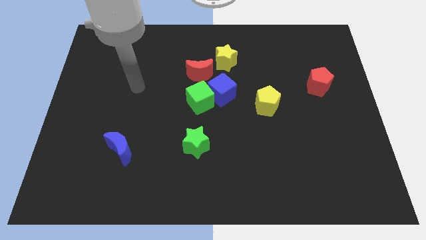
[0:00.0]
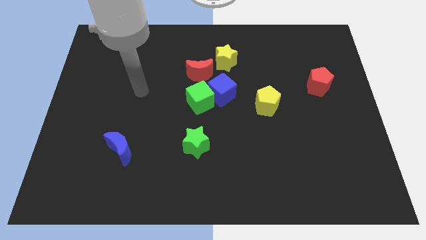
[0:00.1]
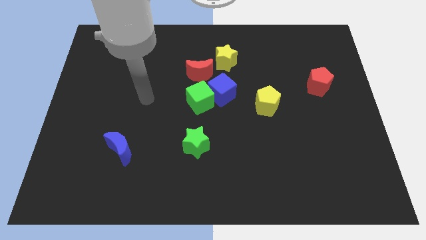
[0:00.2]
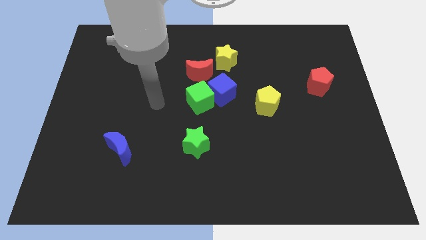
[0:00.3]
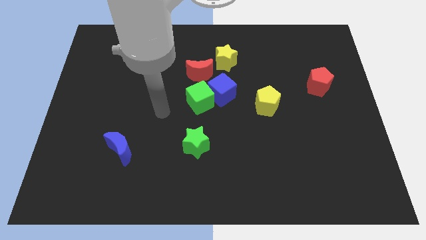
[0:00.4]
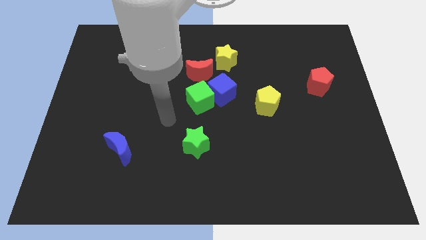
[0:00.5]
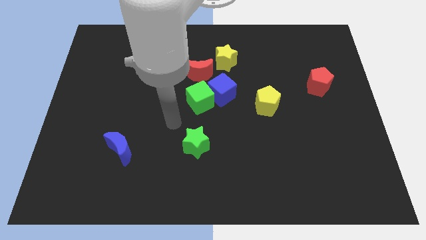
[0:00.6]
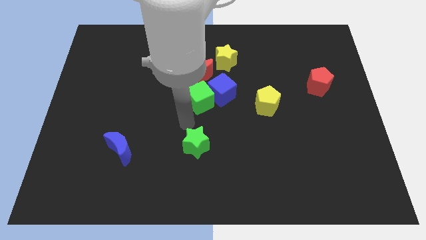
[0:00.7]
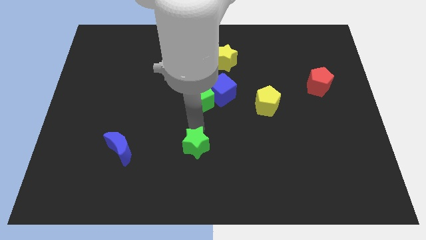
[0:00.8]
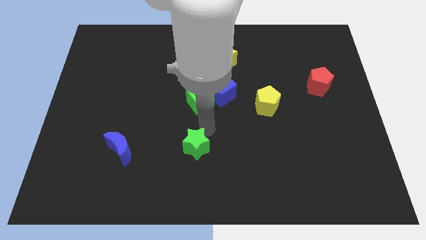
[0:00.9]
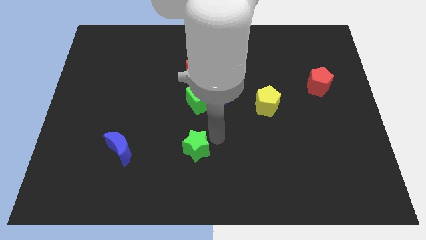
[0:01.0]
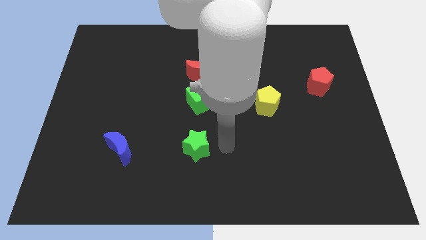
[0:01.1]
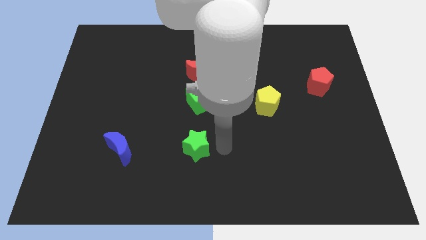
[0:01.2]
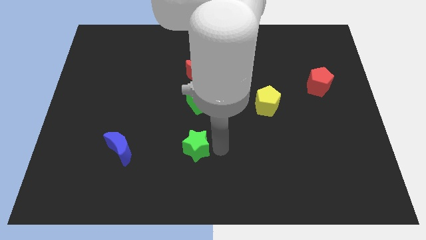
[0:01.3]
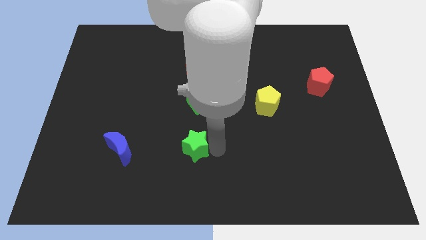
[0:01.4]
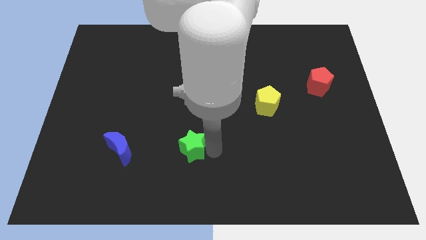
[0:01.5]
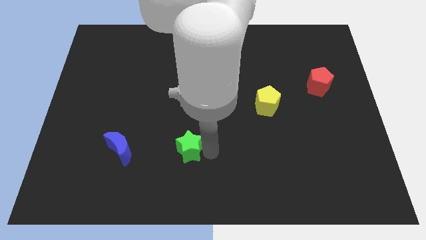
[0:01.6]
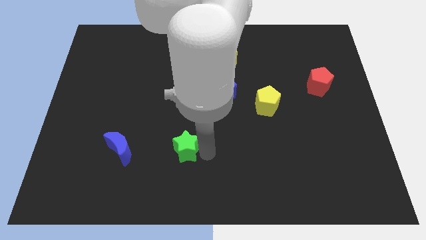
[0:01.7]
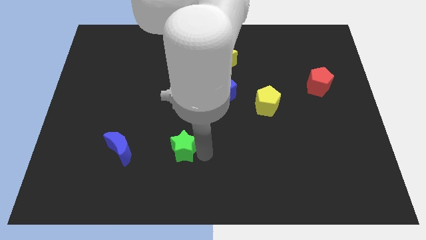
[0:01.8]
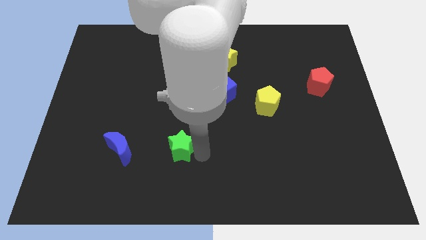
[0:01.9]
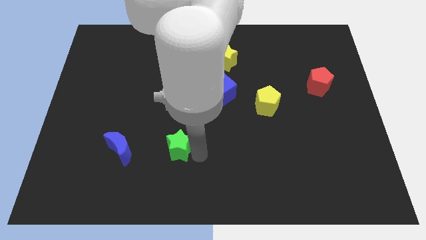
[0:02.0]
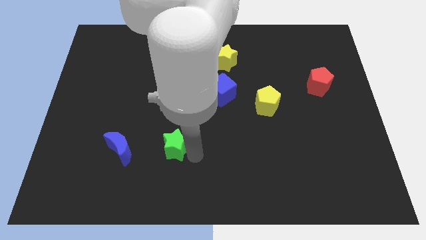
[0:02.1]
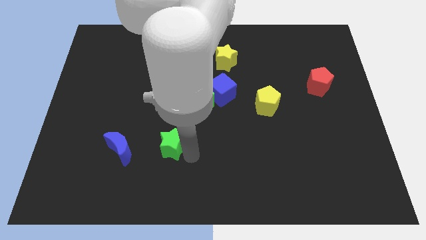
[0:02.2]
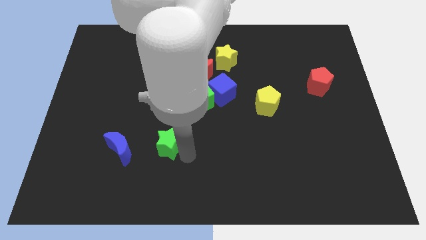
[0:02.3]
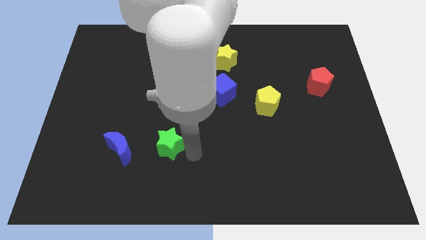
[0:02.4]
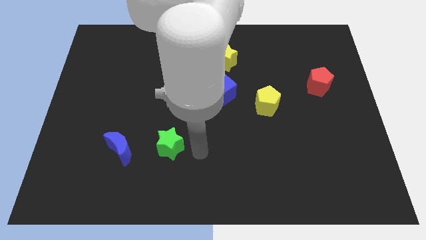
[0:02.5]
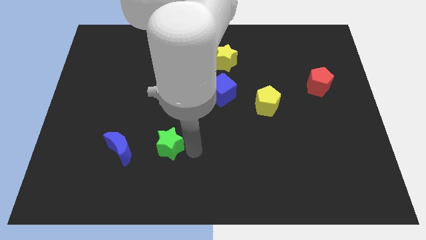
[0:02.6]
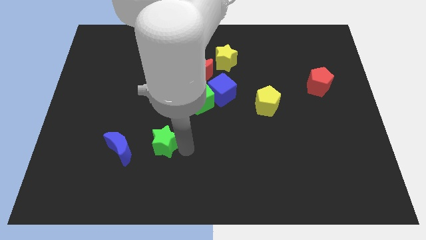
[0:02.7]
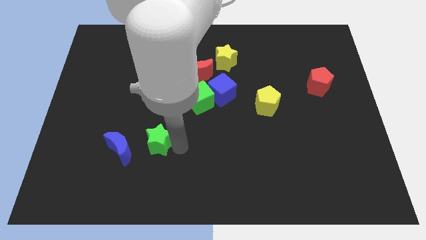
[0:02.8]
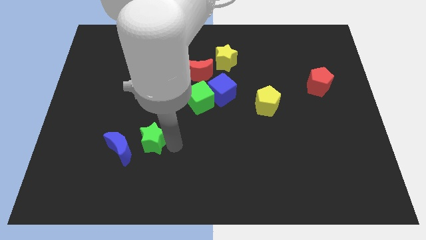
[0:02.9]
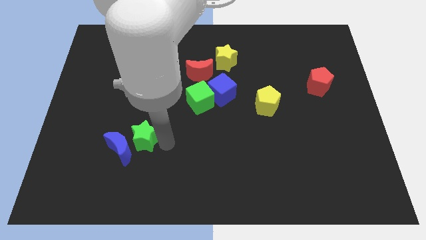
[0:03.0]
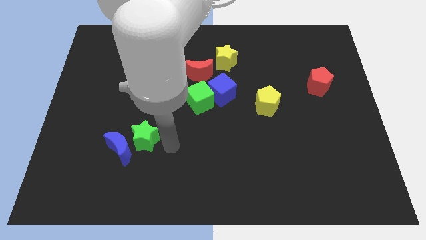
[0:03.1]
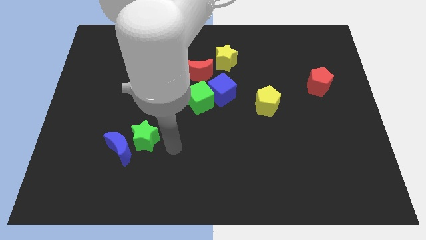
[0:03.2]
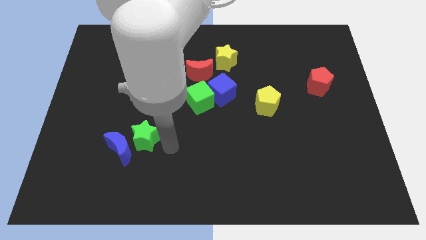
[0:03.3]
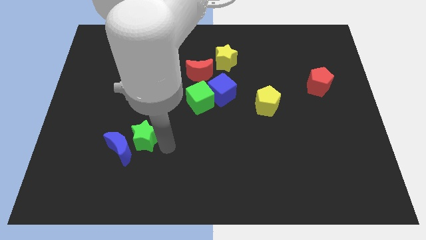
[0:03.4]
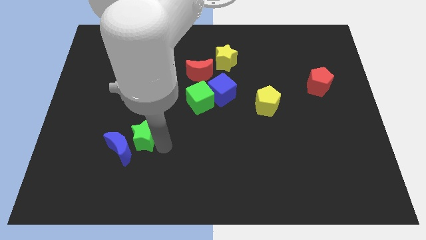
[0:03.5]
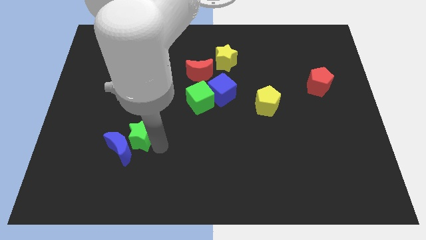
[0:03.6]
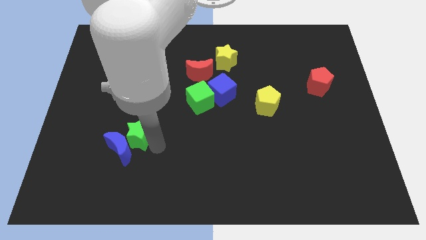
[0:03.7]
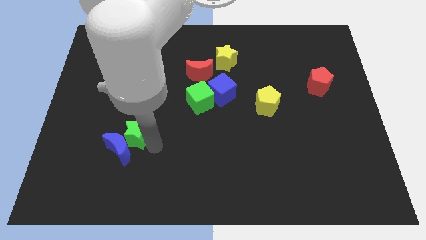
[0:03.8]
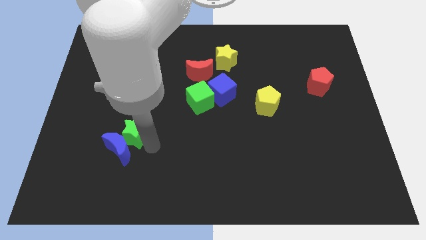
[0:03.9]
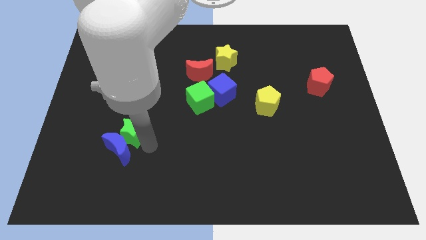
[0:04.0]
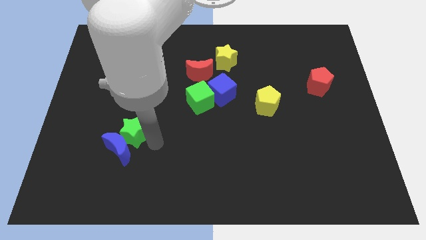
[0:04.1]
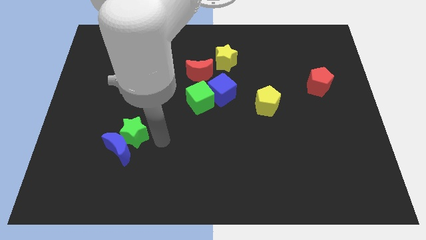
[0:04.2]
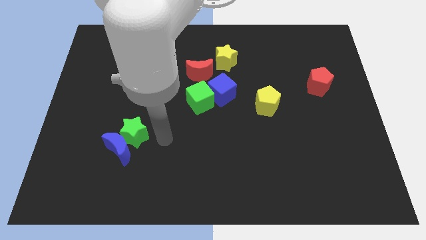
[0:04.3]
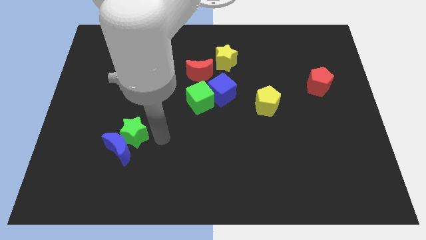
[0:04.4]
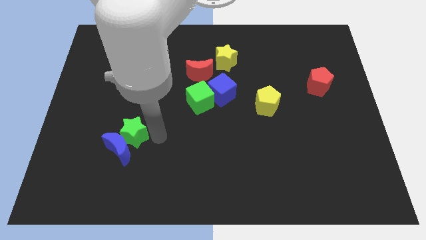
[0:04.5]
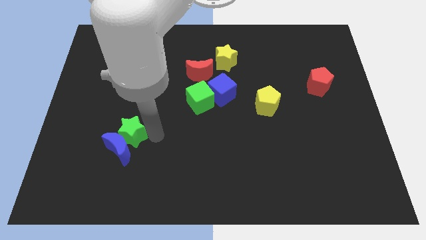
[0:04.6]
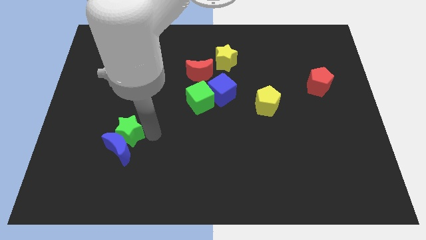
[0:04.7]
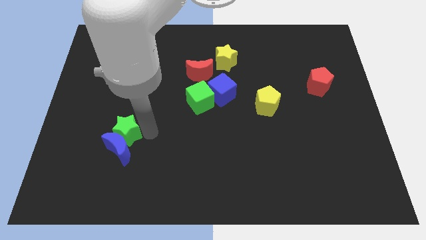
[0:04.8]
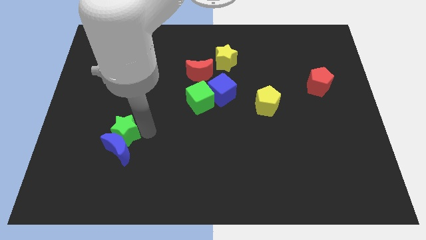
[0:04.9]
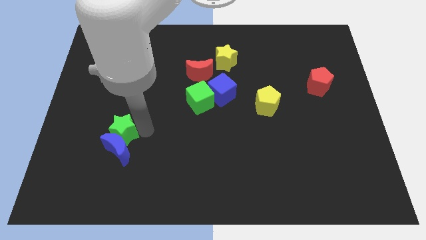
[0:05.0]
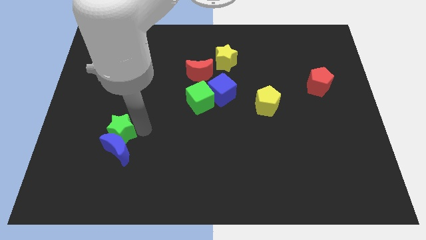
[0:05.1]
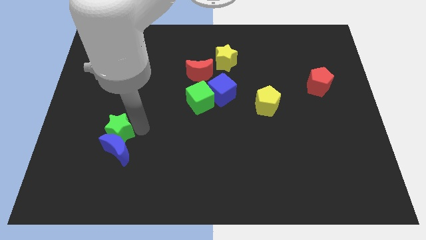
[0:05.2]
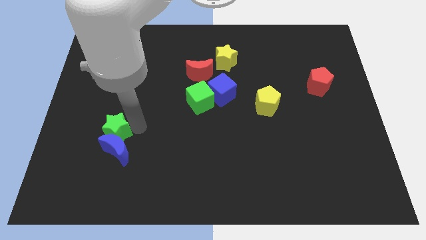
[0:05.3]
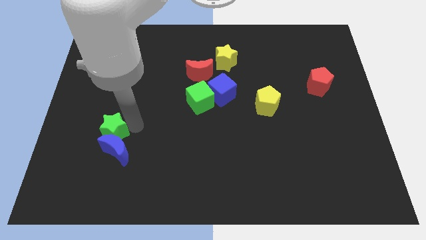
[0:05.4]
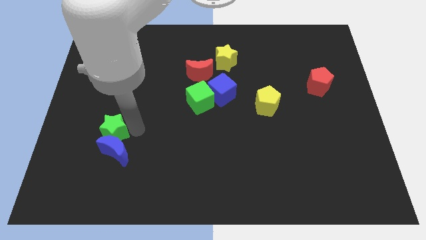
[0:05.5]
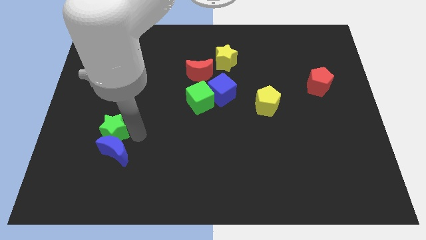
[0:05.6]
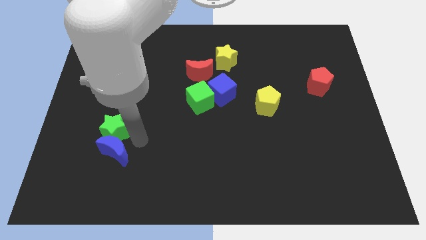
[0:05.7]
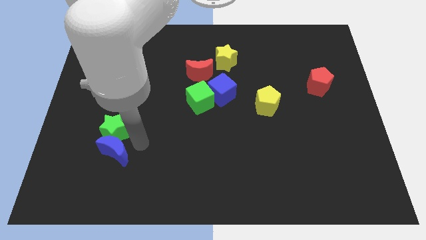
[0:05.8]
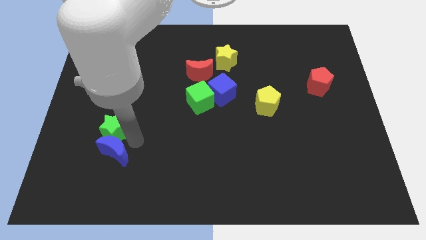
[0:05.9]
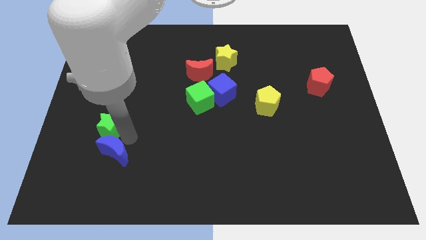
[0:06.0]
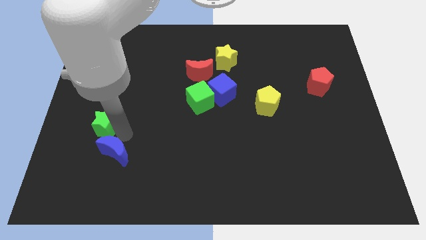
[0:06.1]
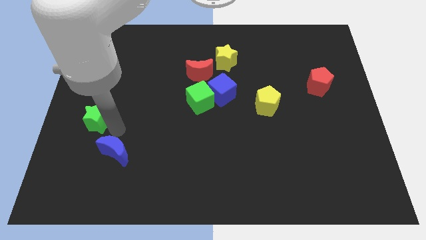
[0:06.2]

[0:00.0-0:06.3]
push the green star to the left side
